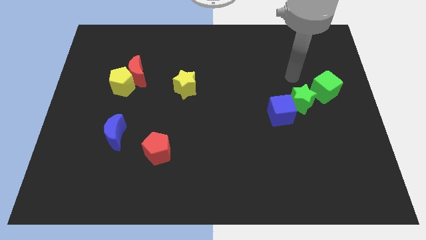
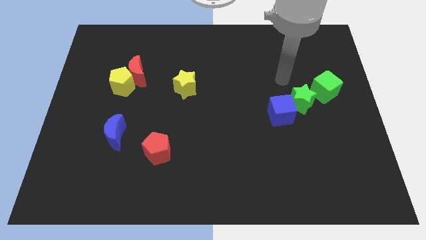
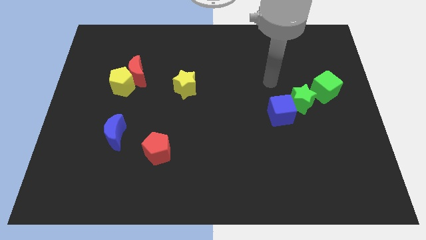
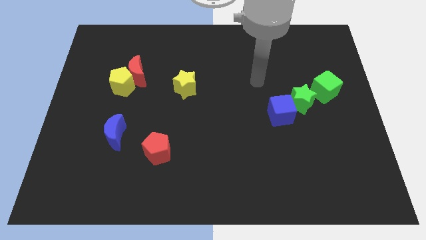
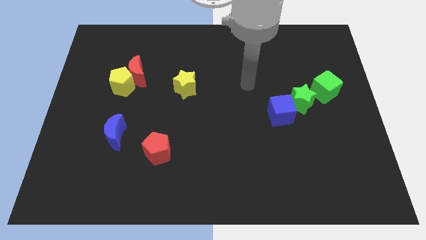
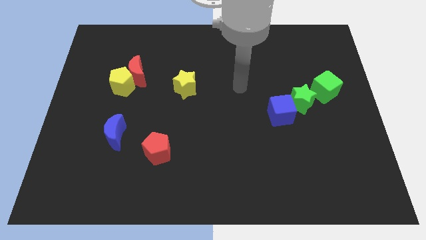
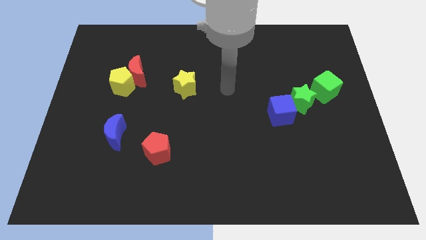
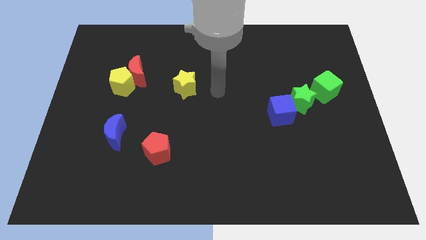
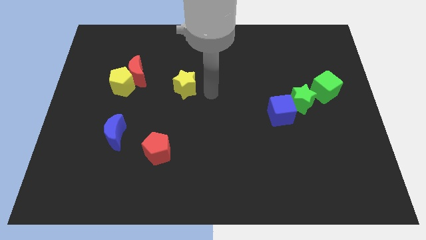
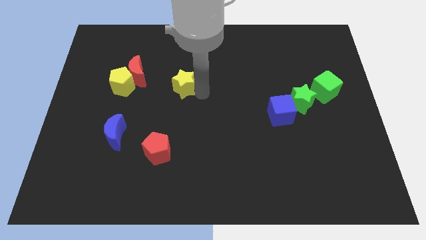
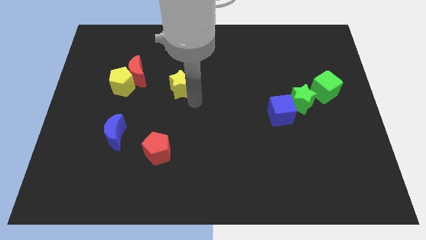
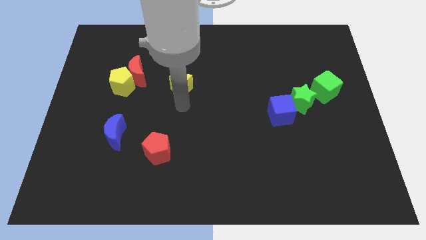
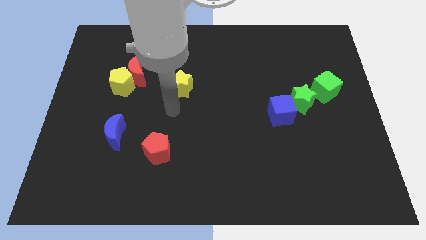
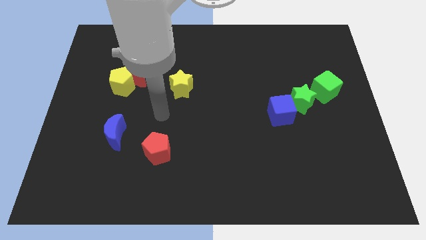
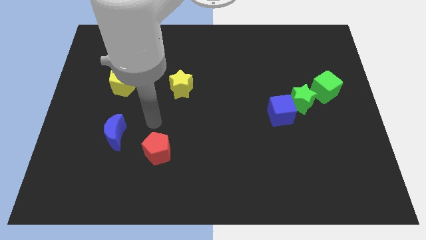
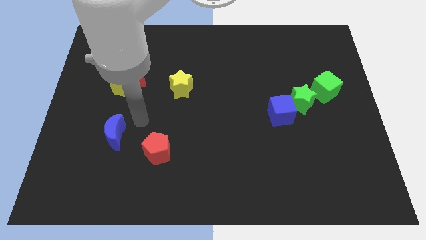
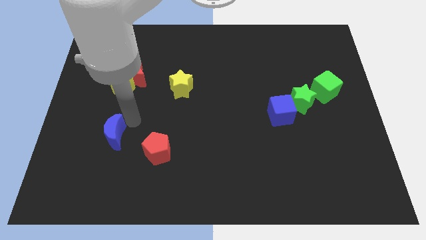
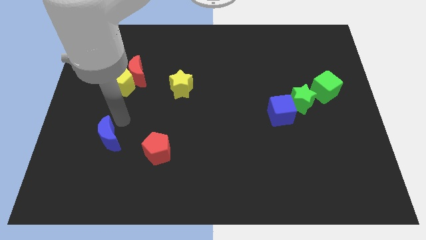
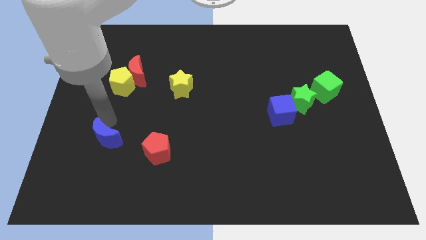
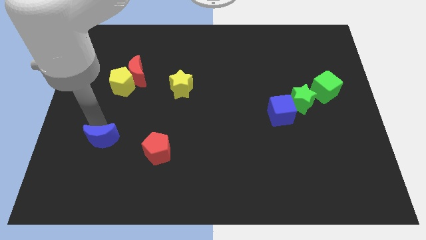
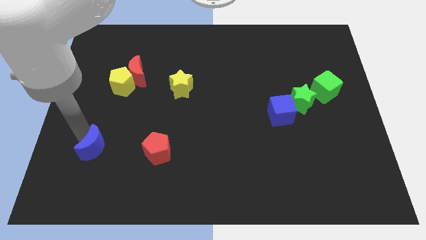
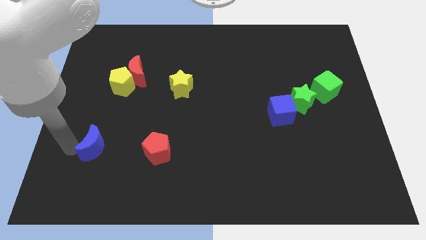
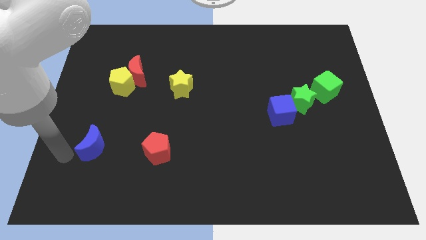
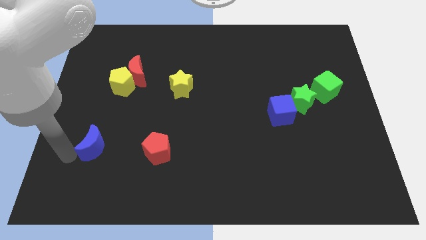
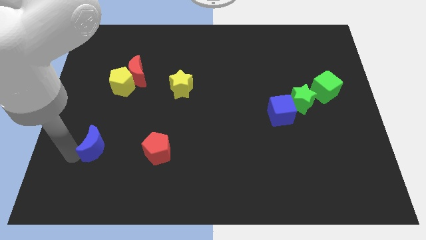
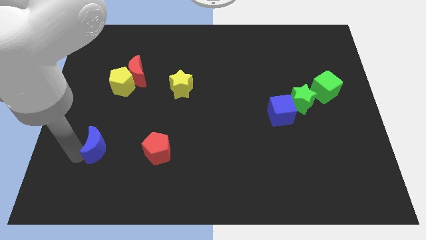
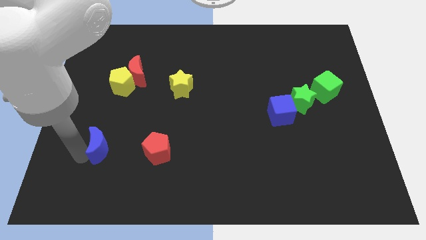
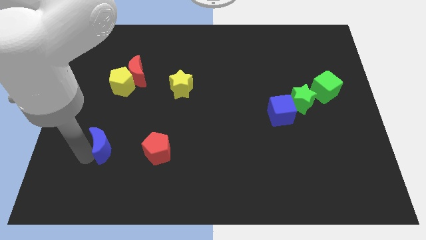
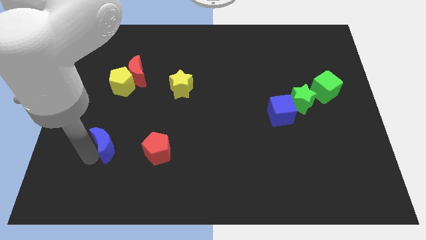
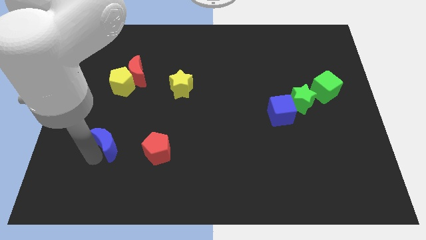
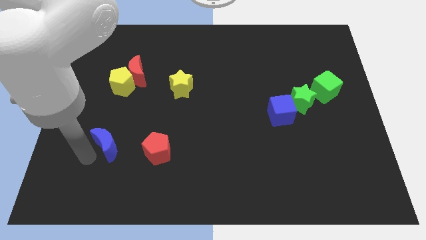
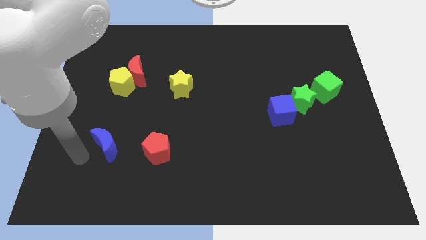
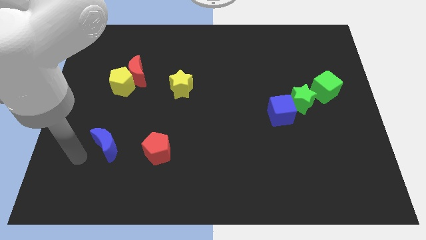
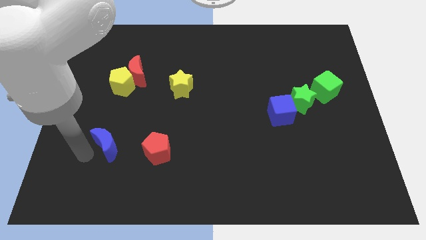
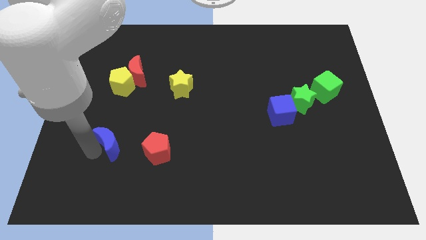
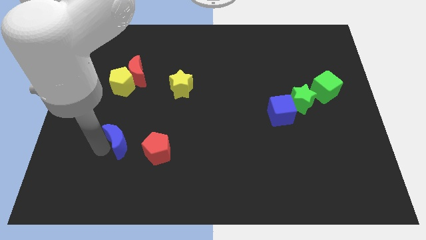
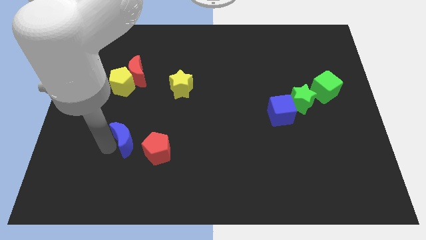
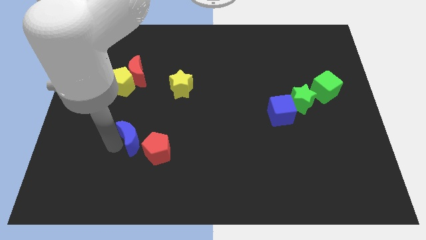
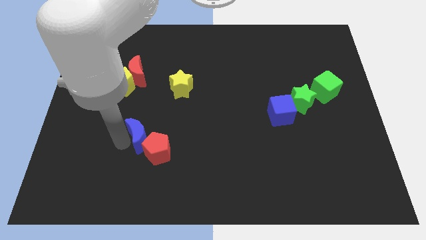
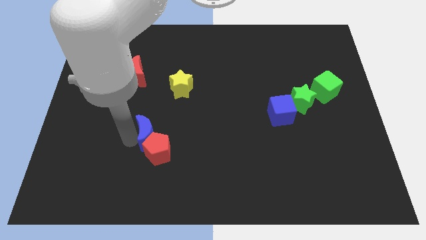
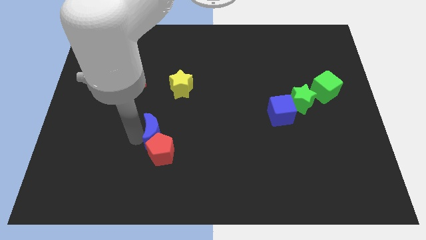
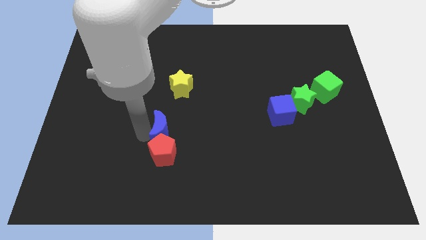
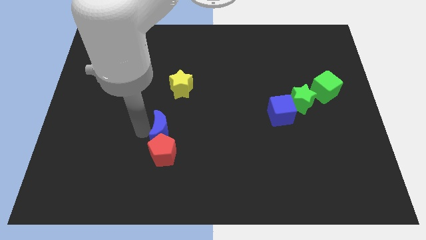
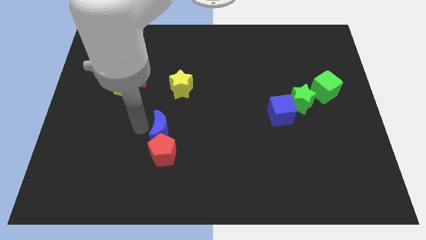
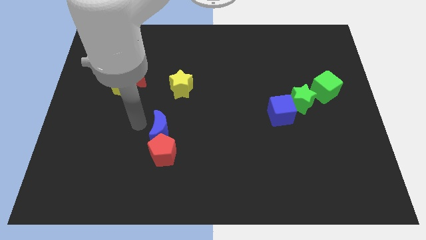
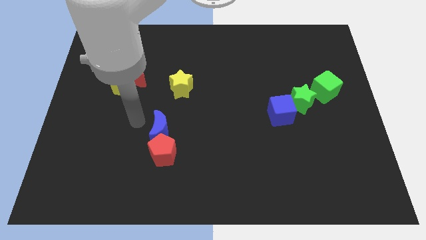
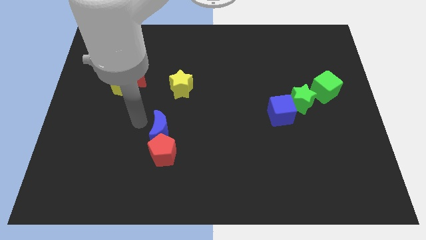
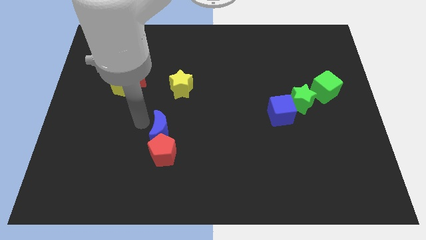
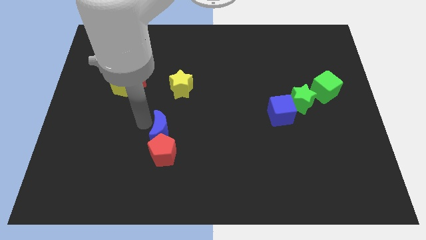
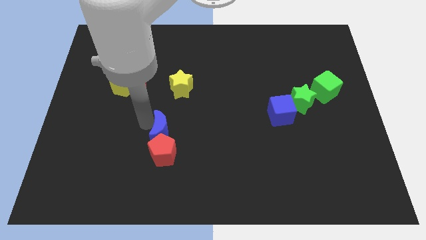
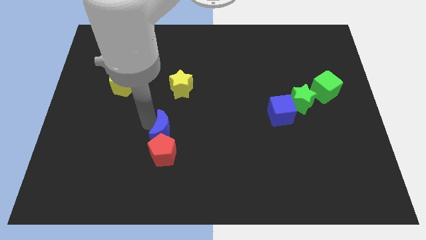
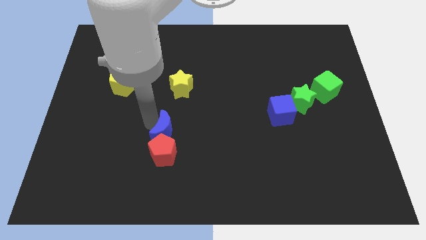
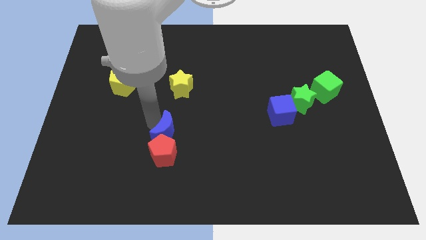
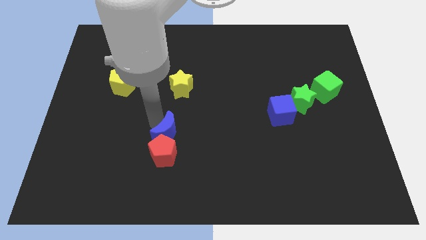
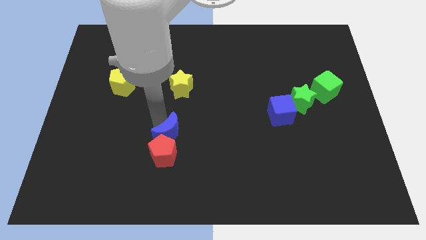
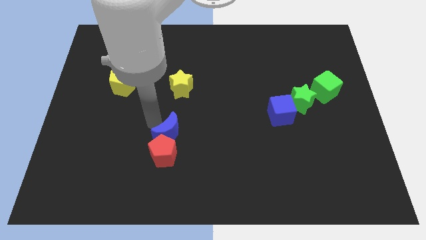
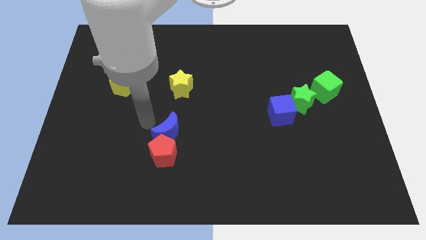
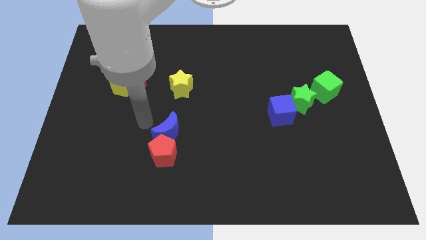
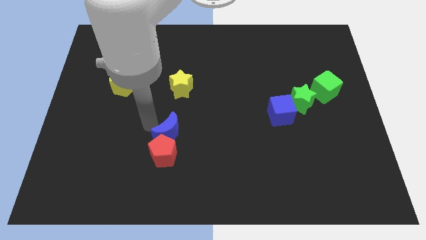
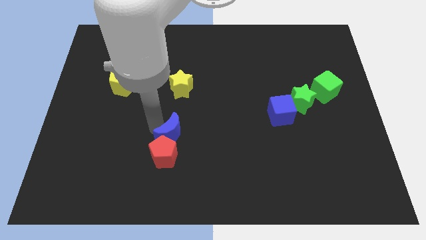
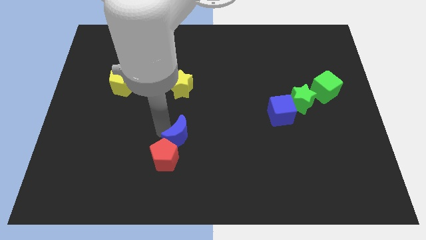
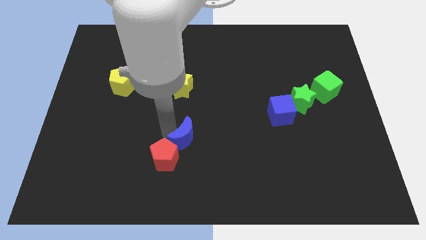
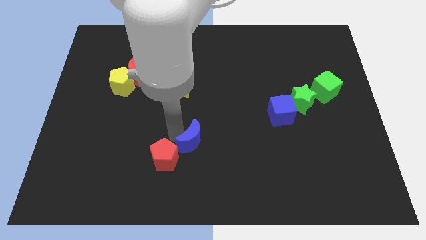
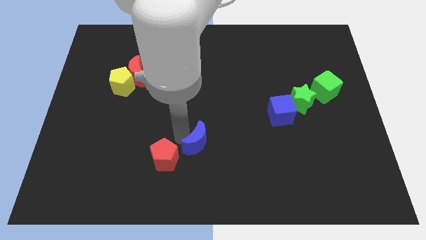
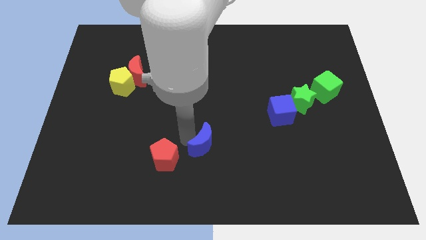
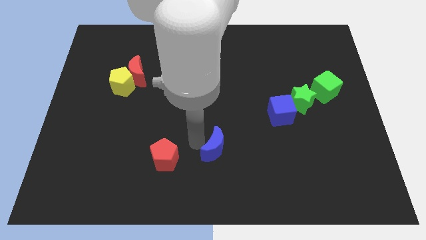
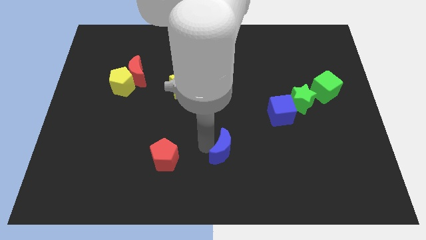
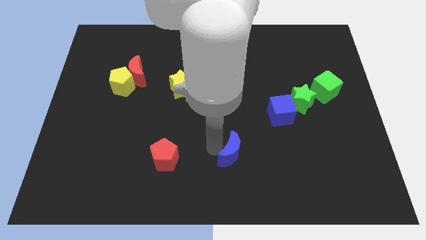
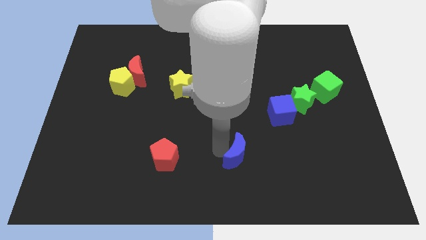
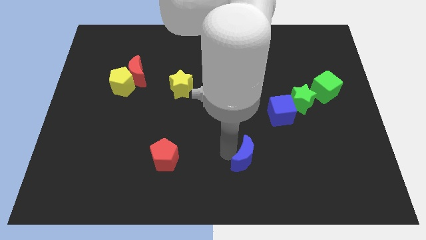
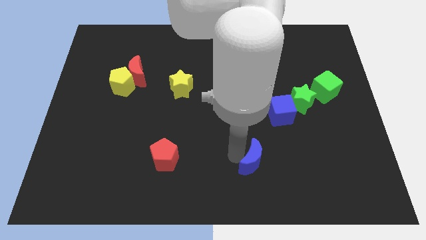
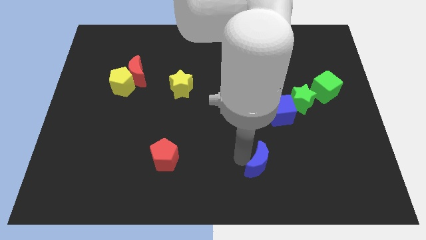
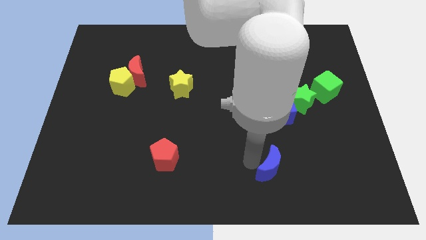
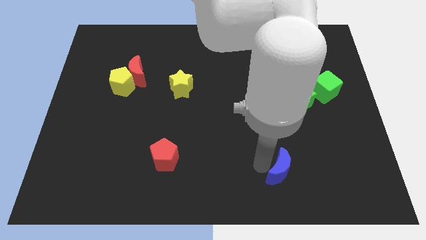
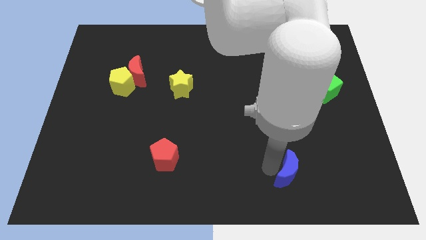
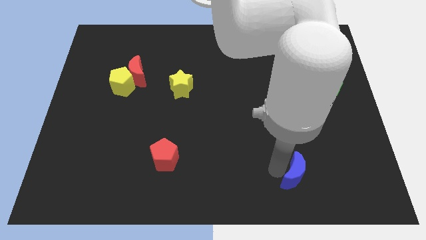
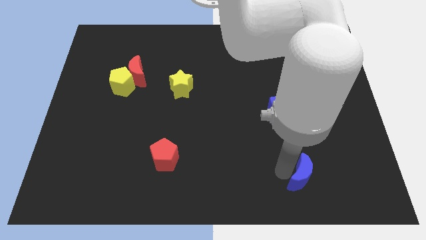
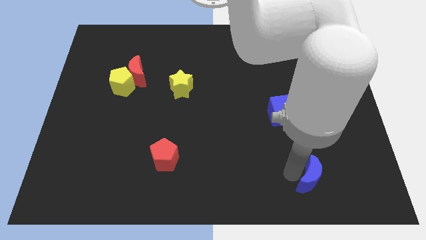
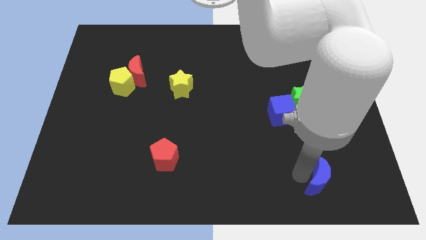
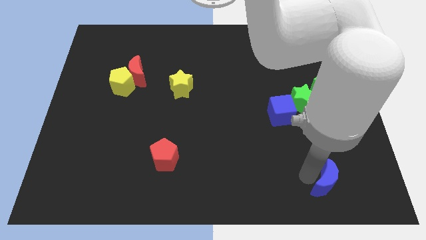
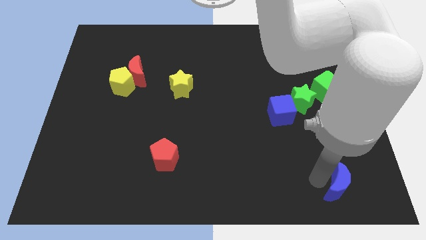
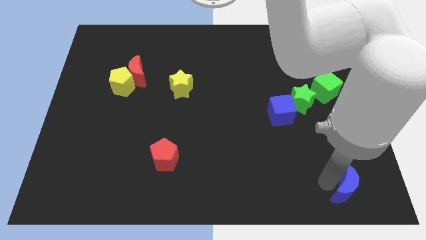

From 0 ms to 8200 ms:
push the blue moon to the bottom right corner
